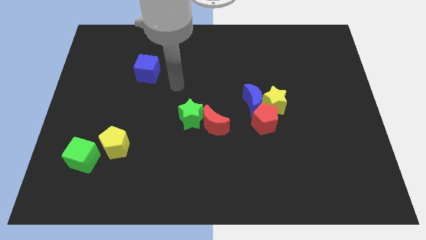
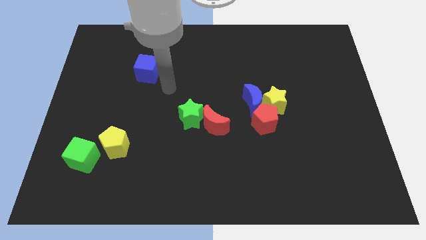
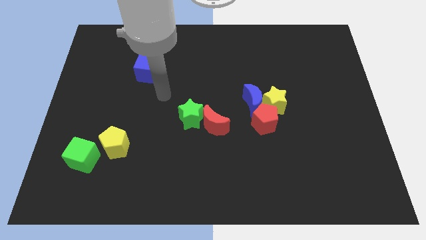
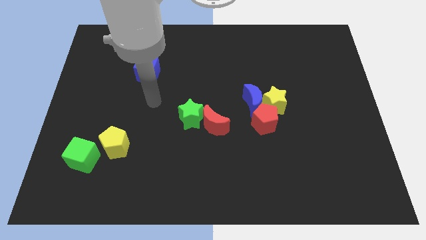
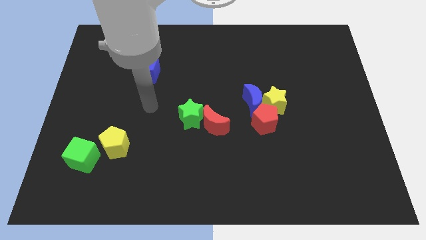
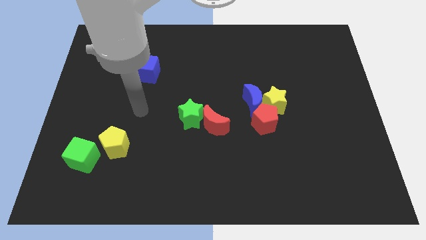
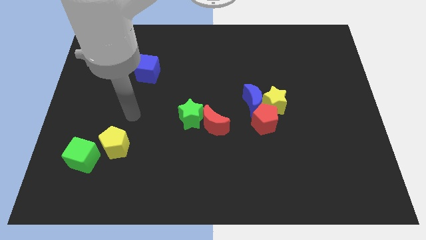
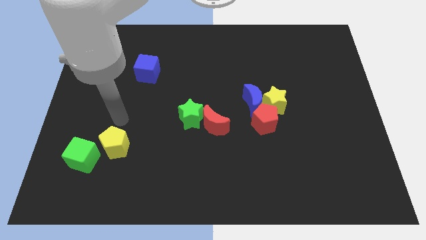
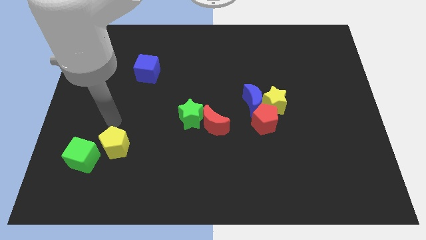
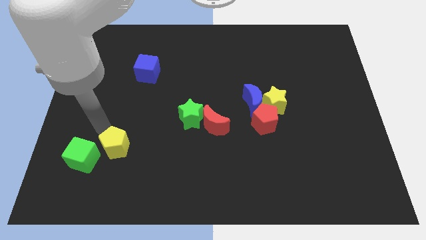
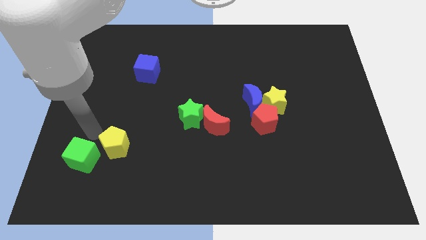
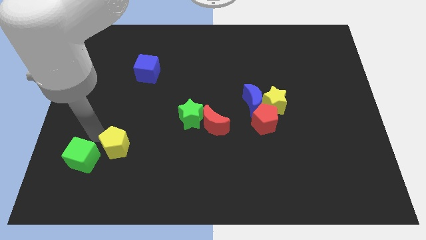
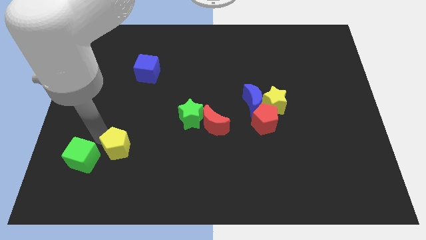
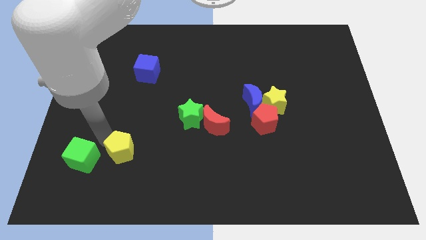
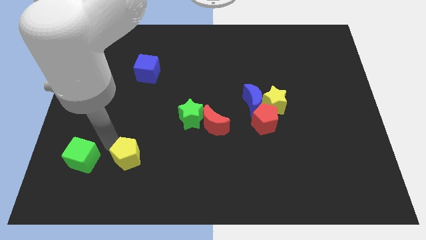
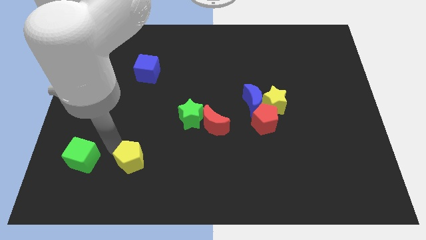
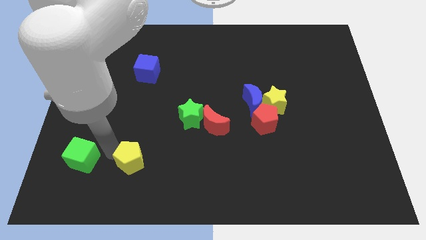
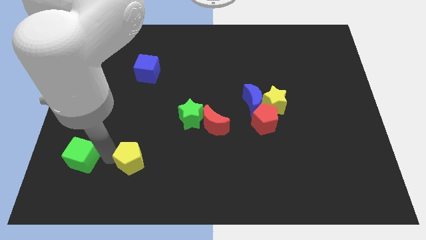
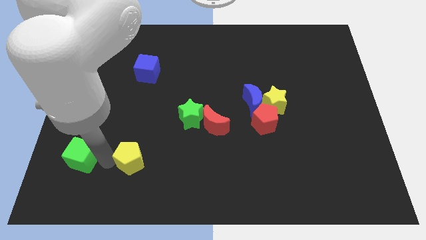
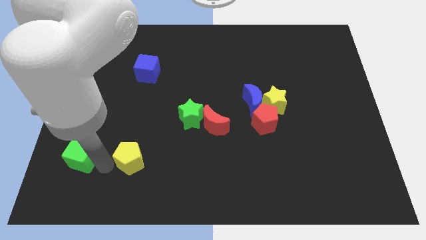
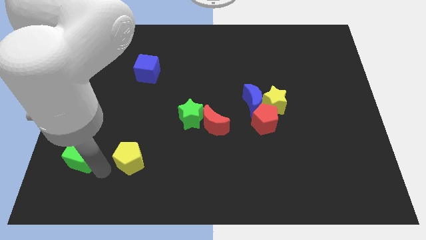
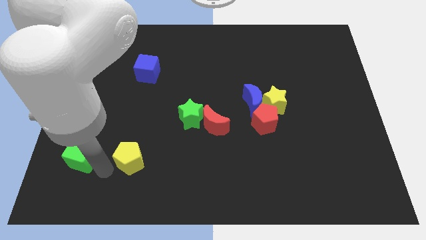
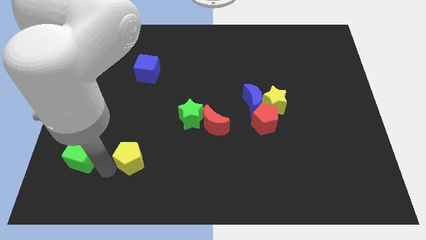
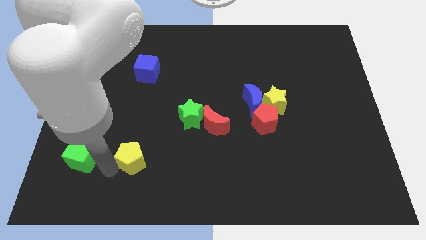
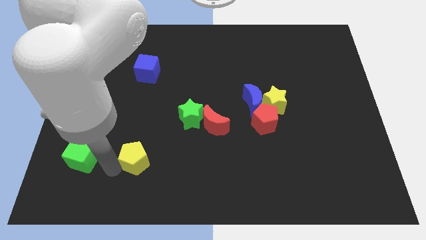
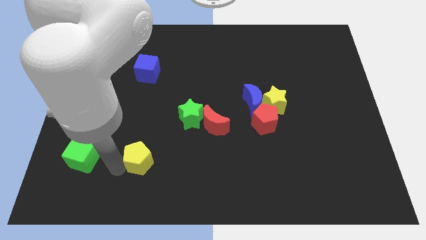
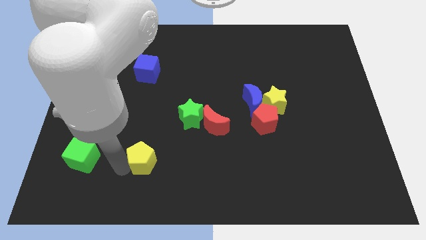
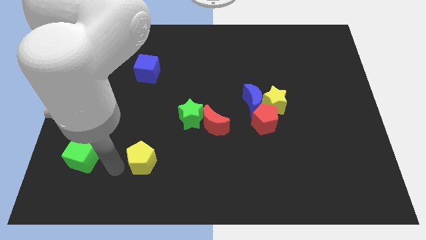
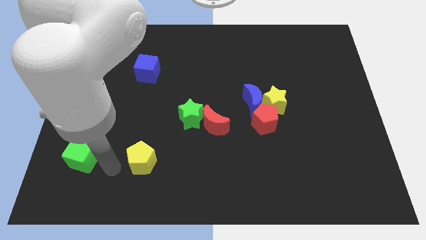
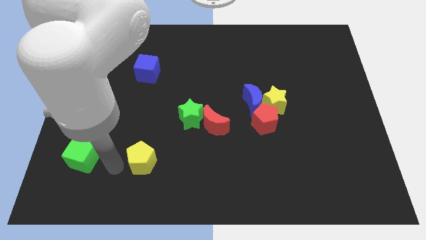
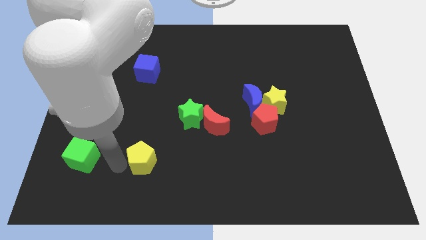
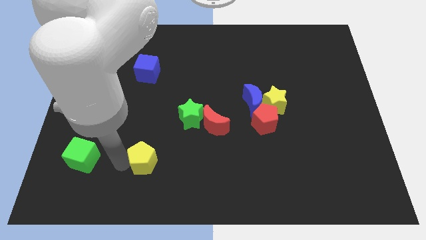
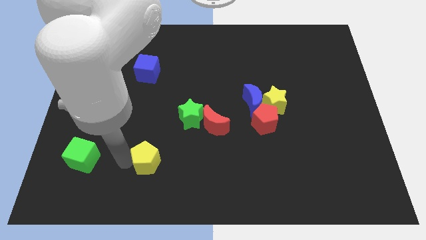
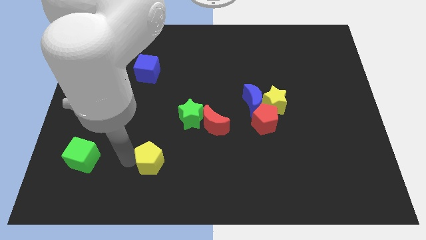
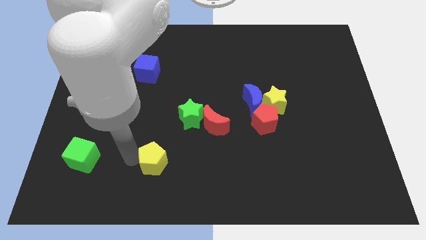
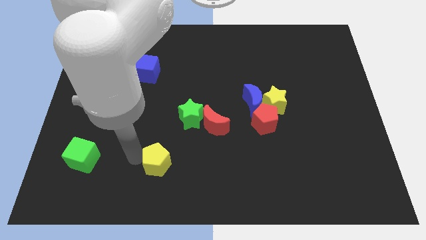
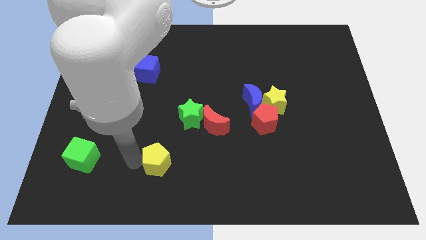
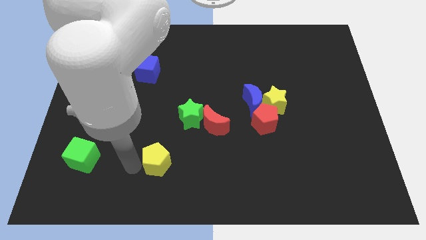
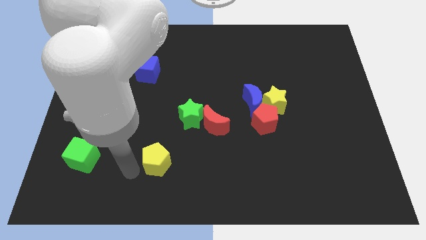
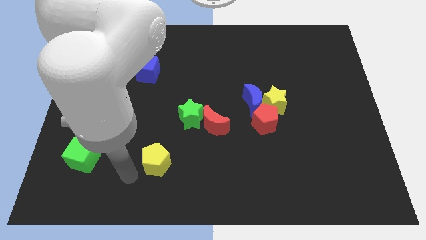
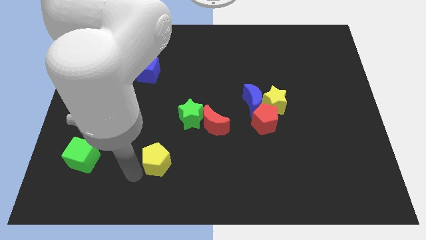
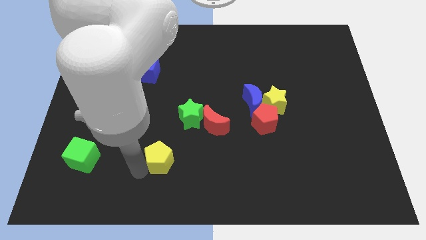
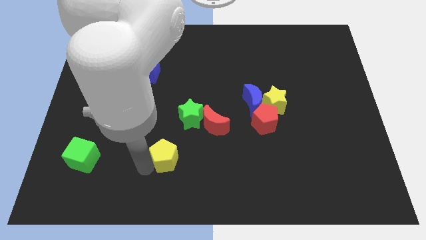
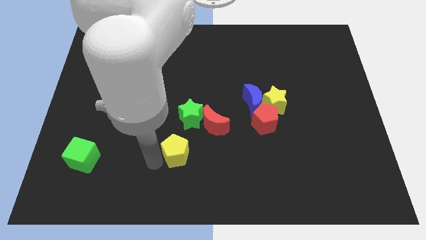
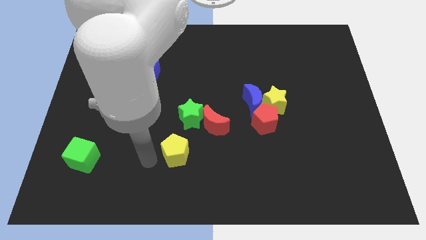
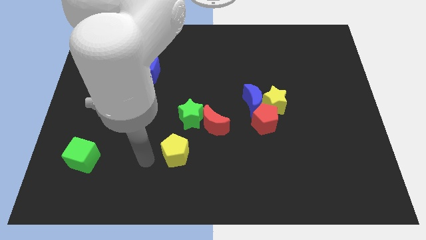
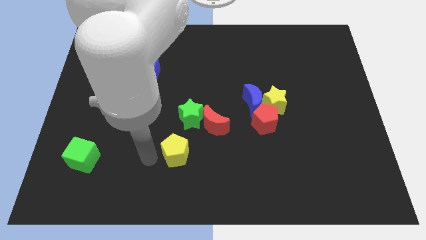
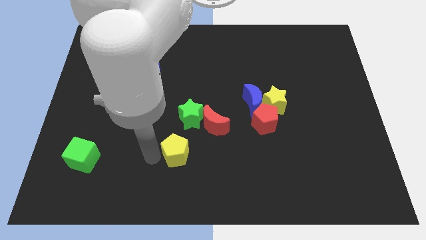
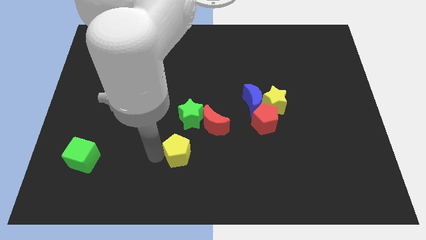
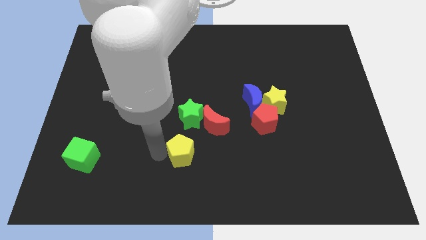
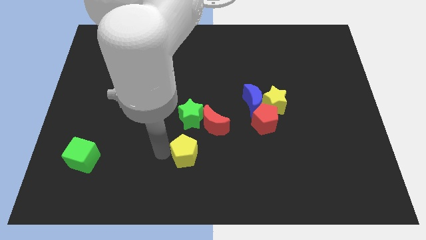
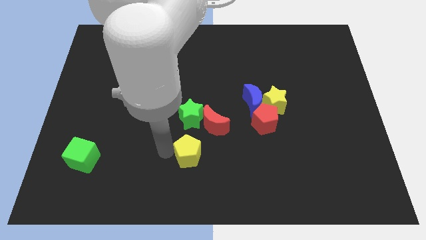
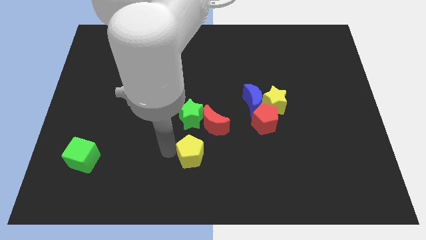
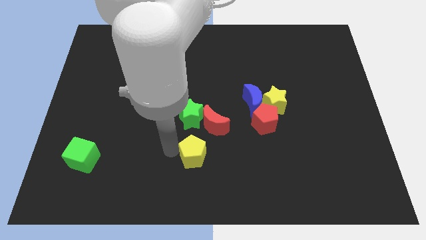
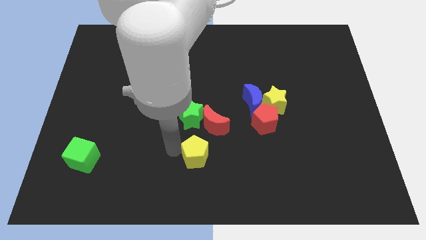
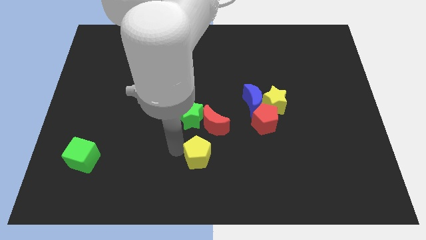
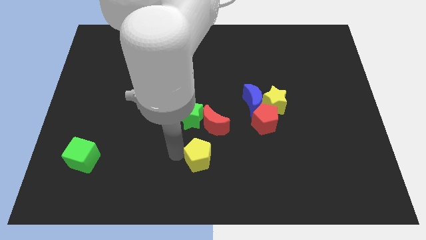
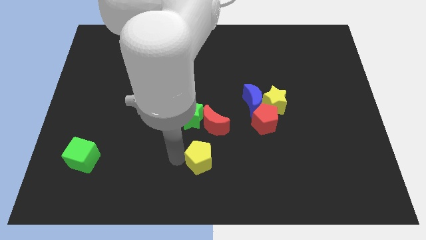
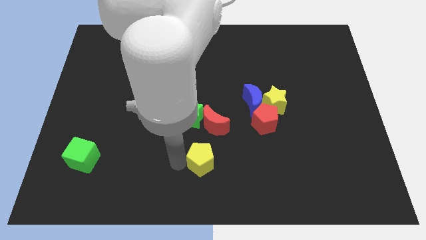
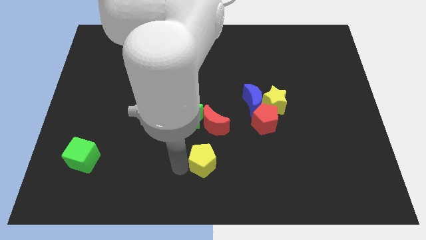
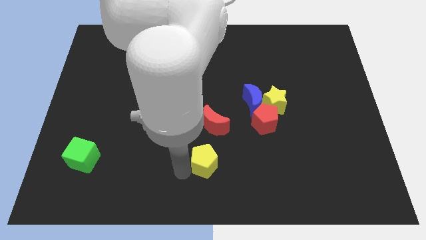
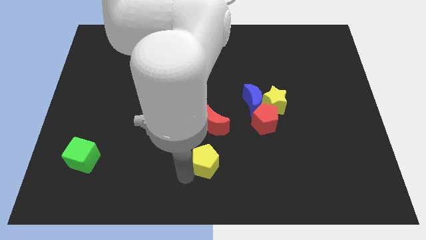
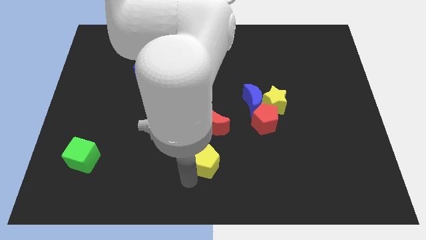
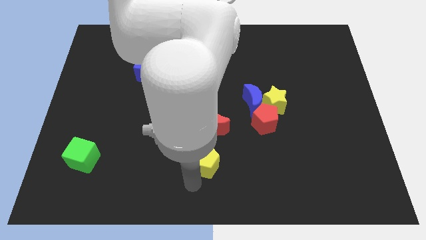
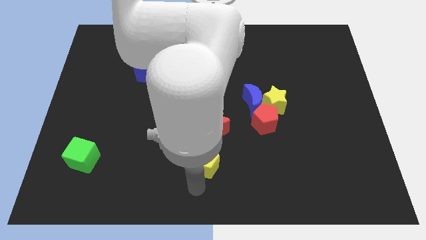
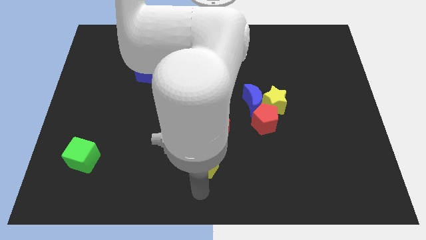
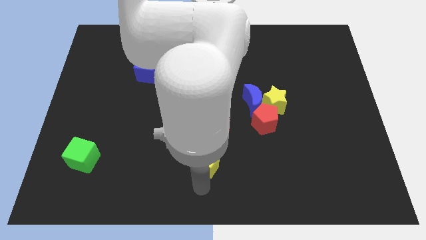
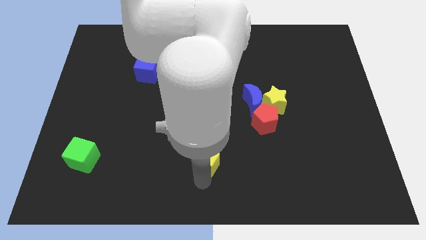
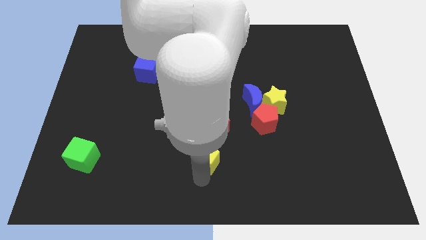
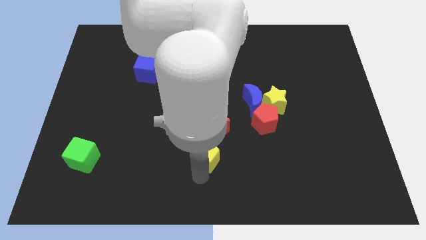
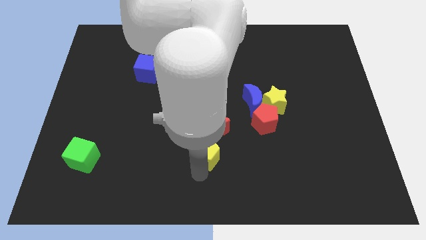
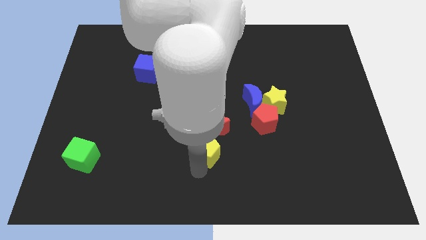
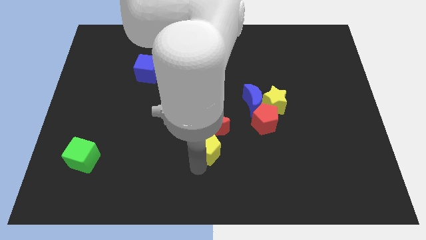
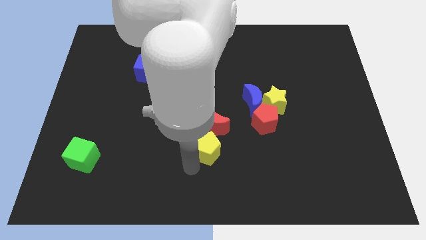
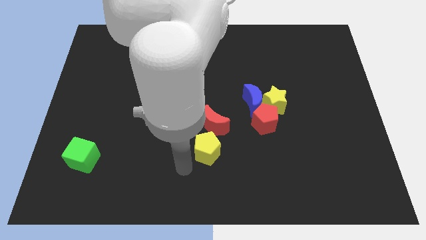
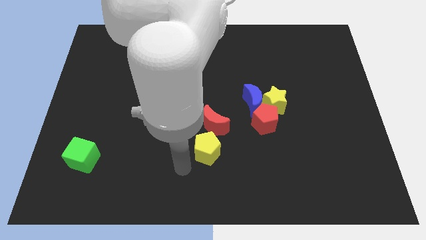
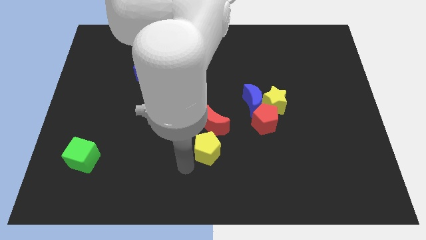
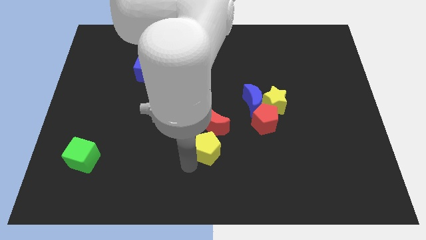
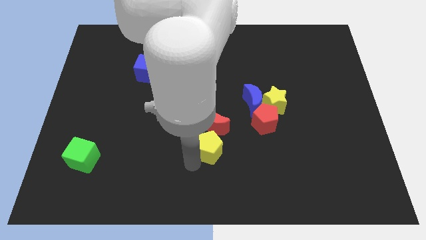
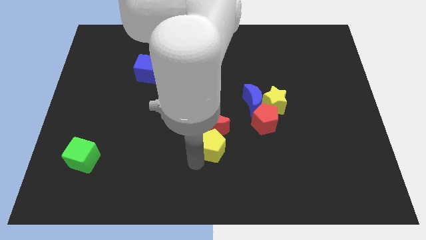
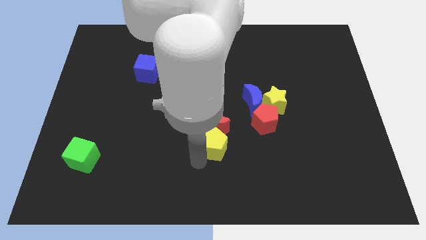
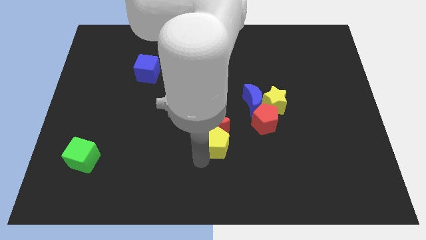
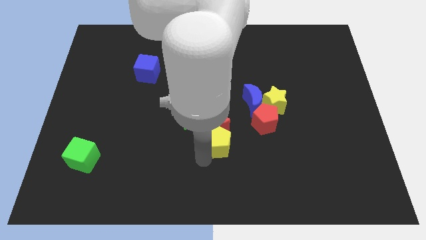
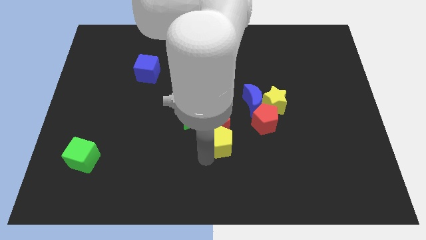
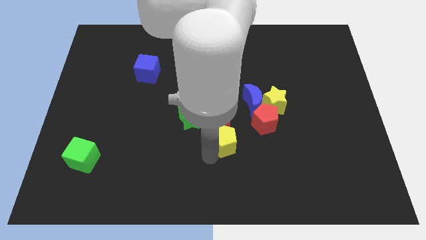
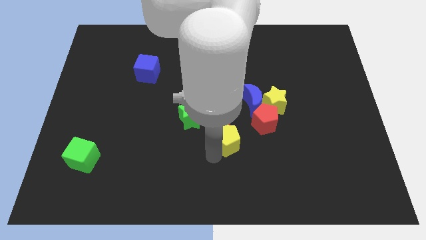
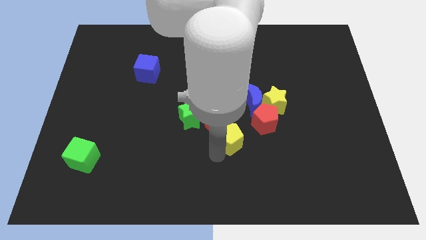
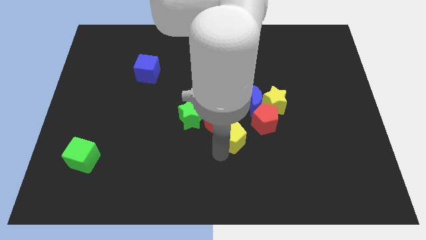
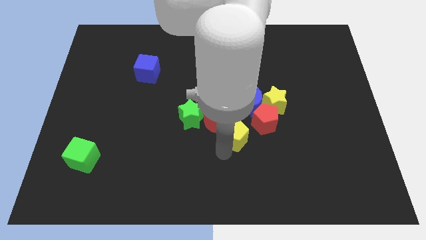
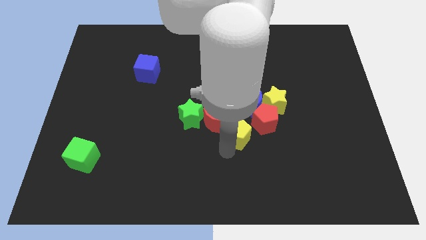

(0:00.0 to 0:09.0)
put the yellow pentagon to the right side of the green star
